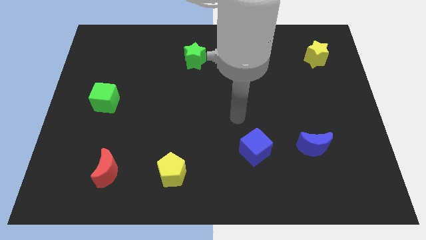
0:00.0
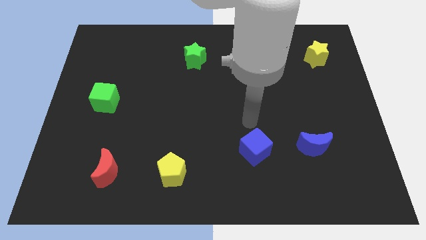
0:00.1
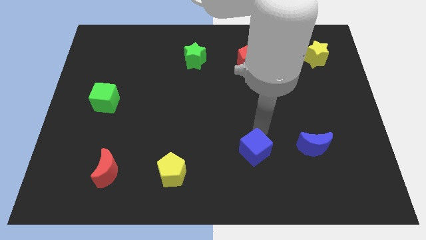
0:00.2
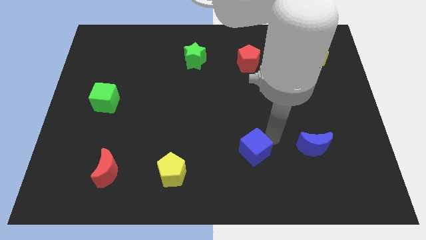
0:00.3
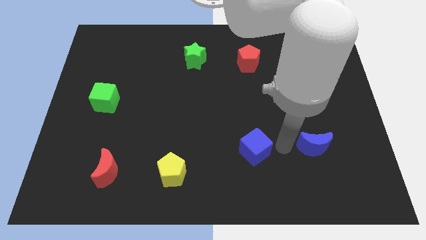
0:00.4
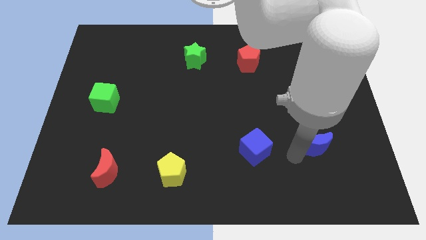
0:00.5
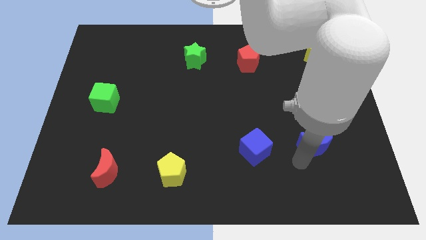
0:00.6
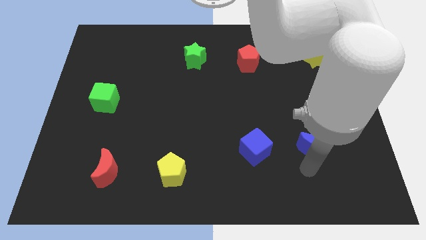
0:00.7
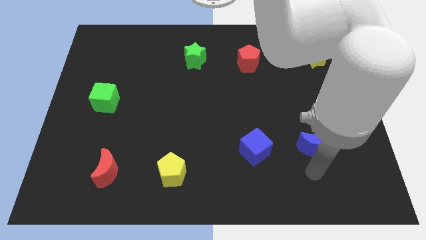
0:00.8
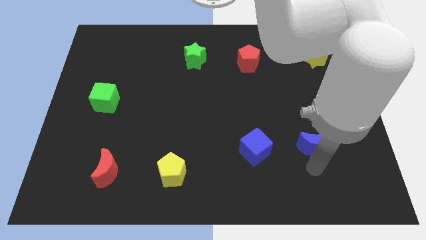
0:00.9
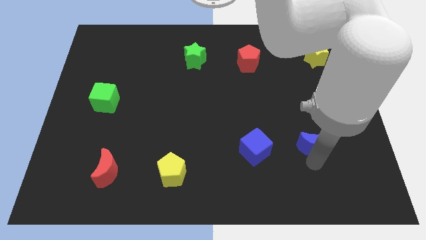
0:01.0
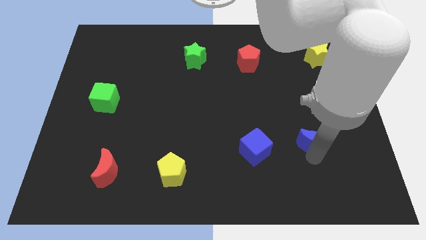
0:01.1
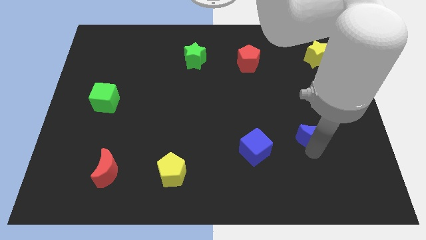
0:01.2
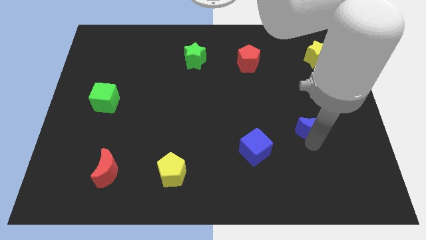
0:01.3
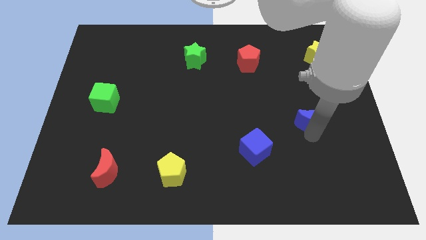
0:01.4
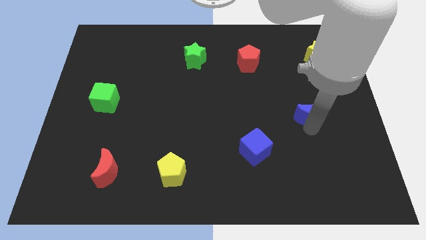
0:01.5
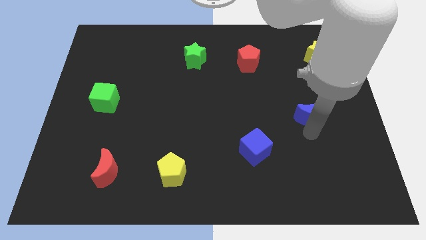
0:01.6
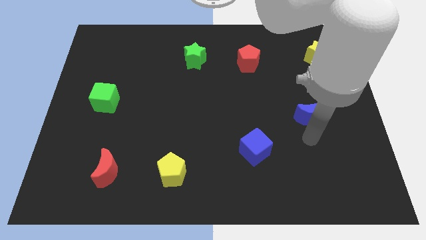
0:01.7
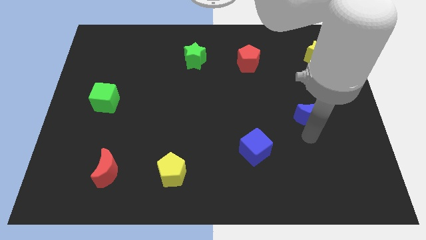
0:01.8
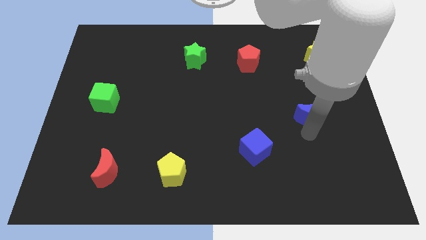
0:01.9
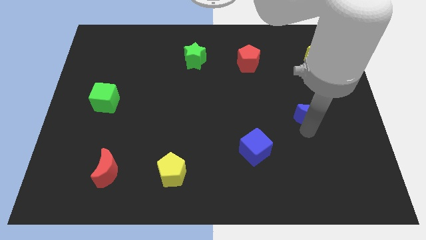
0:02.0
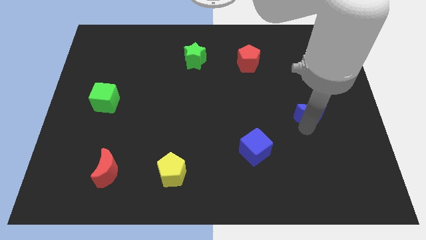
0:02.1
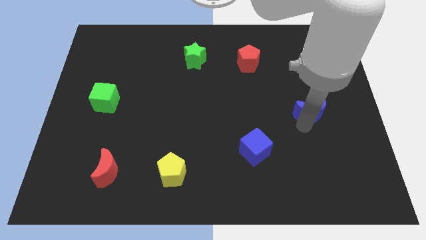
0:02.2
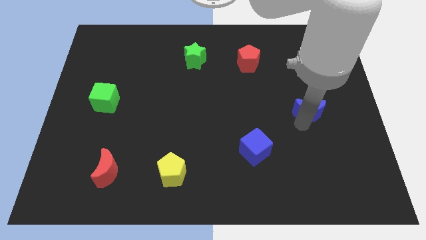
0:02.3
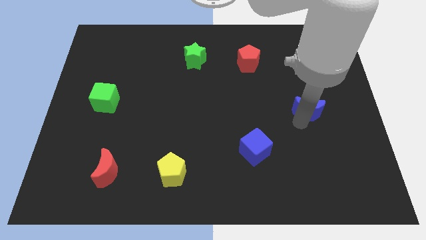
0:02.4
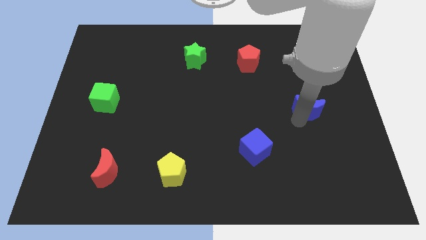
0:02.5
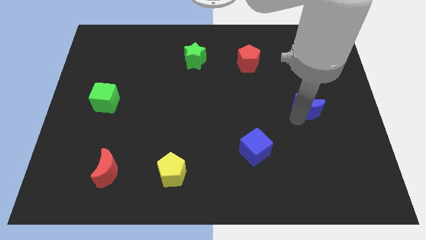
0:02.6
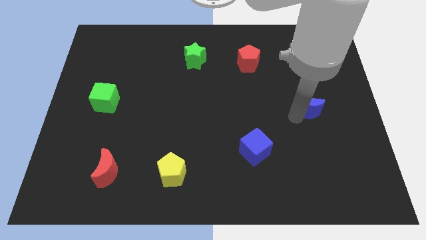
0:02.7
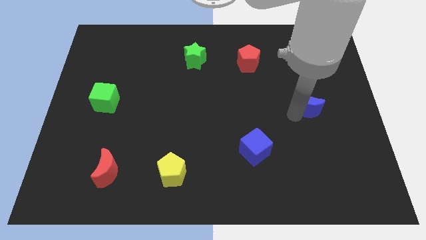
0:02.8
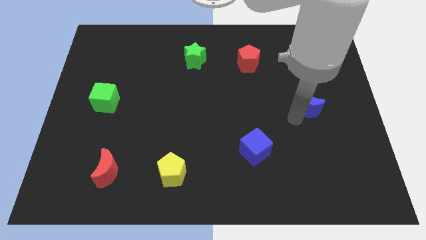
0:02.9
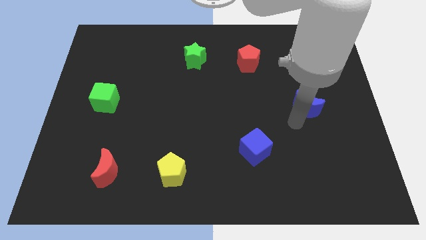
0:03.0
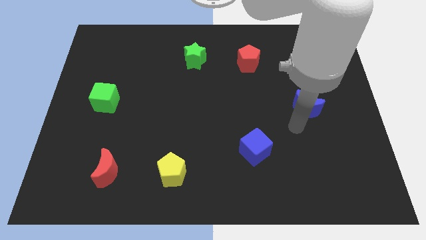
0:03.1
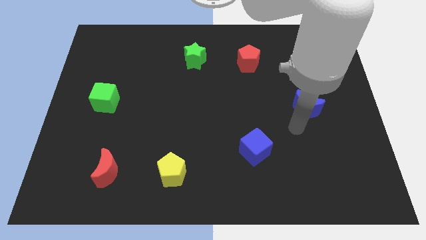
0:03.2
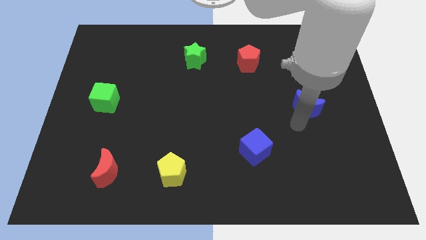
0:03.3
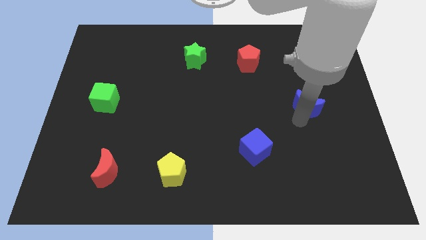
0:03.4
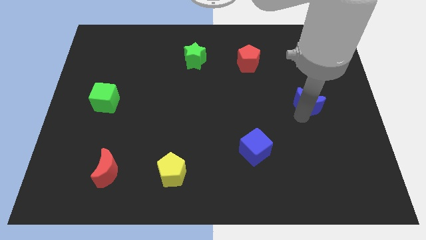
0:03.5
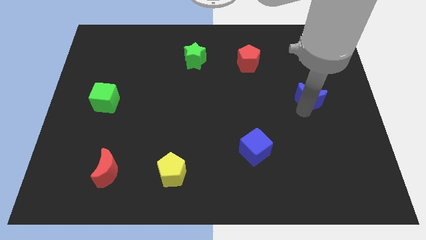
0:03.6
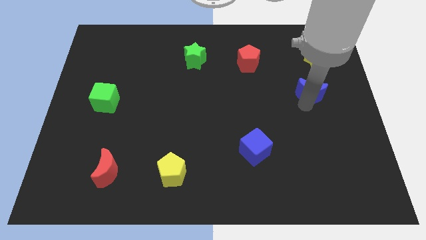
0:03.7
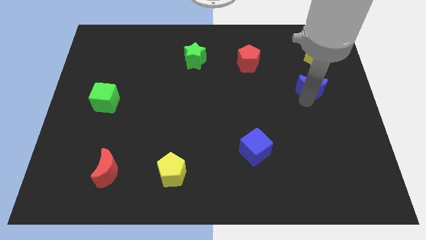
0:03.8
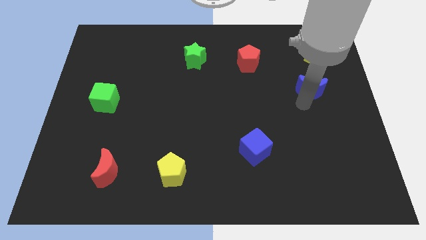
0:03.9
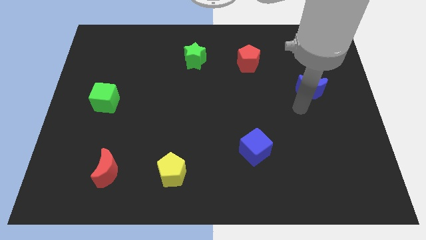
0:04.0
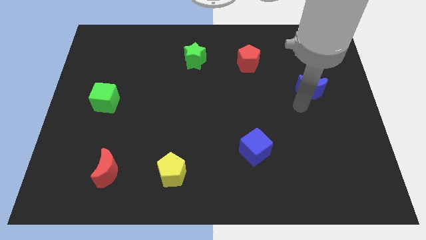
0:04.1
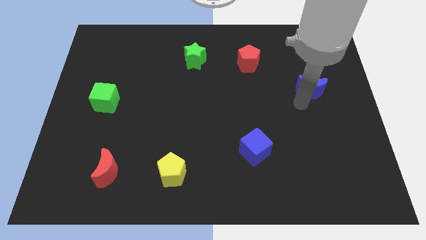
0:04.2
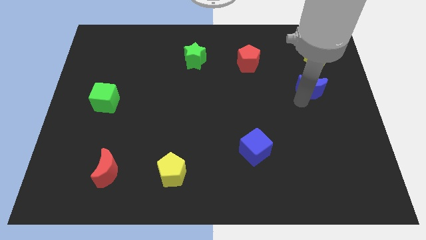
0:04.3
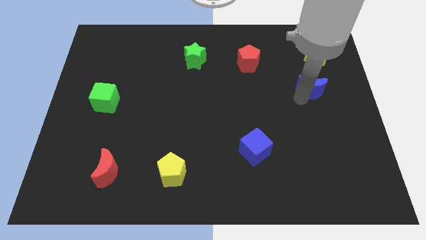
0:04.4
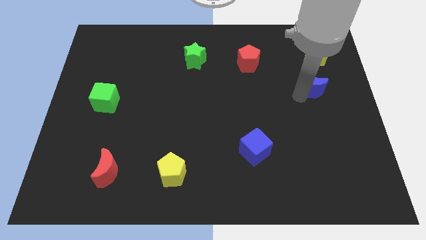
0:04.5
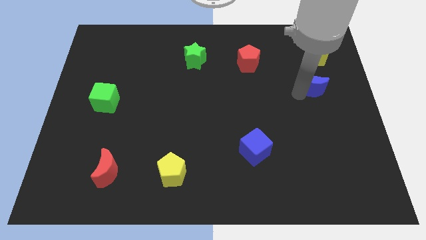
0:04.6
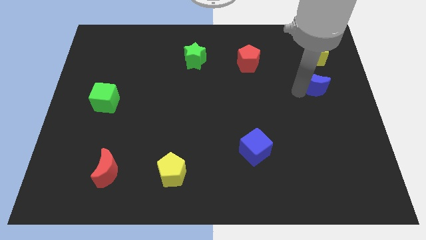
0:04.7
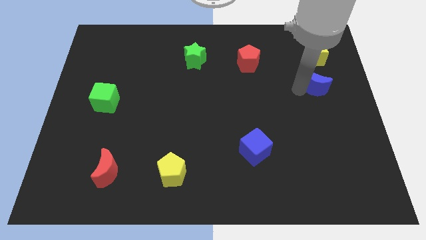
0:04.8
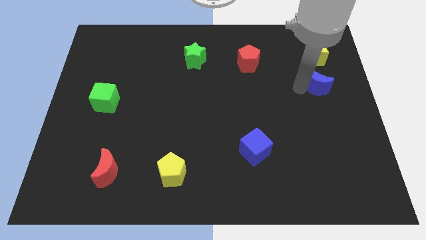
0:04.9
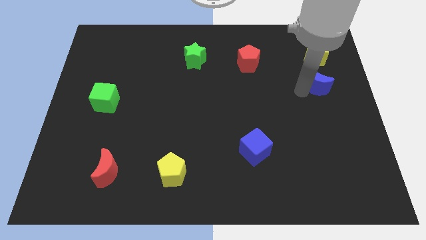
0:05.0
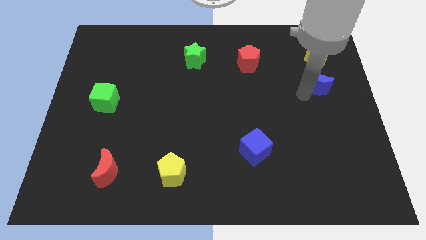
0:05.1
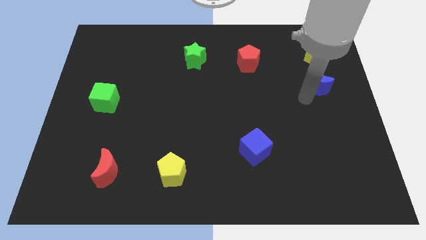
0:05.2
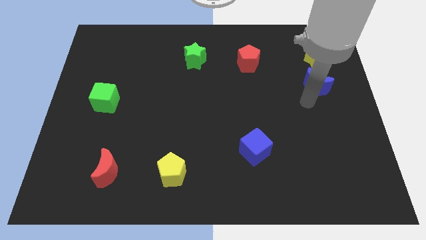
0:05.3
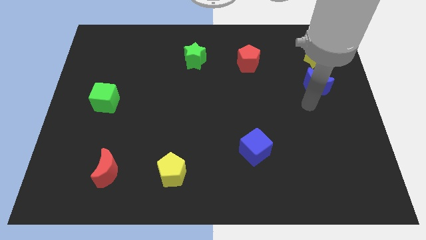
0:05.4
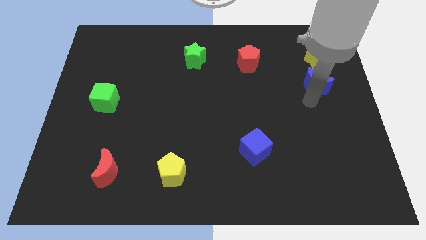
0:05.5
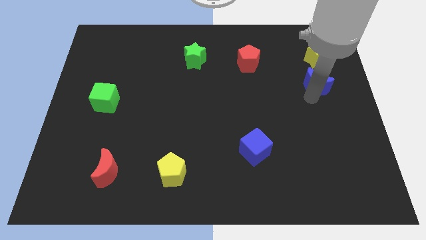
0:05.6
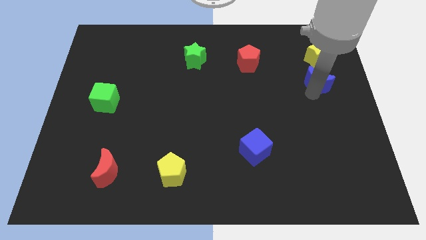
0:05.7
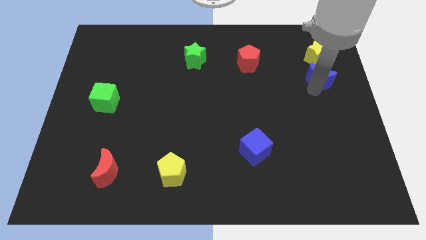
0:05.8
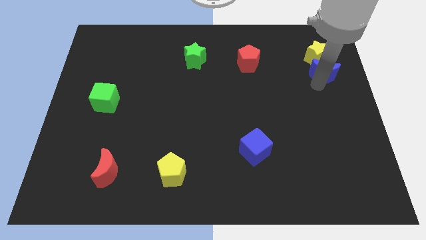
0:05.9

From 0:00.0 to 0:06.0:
push the blue moon to the yellow star
